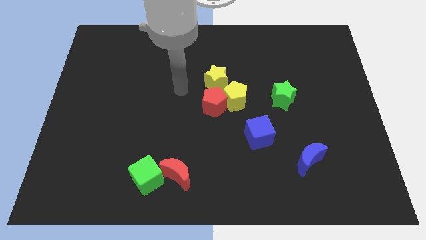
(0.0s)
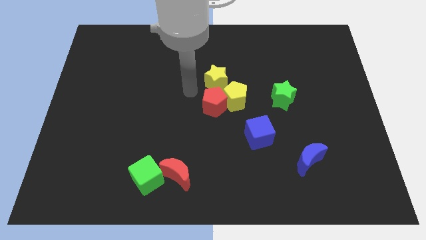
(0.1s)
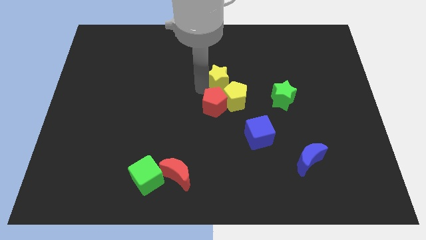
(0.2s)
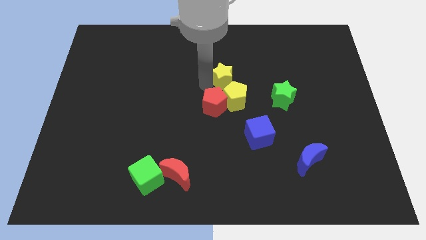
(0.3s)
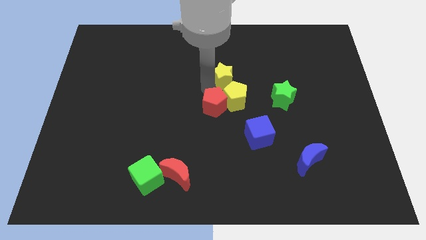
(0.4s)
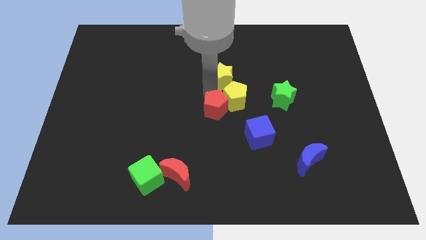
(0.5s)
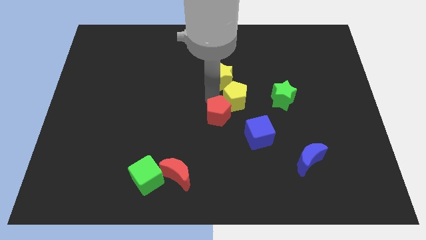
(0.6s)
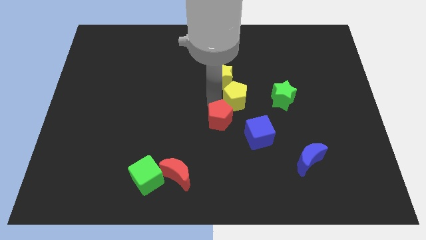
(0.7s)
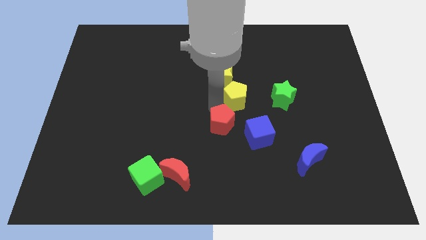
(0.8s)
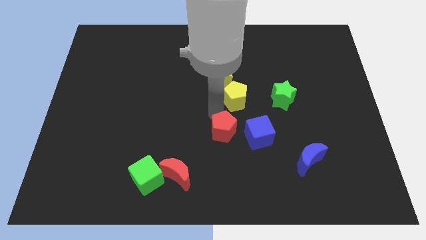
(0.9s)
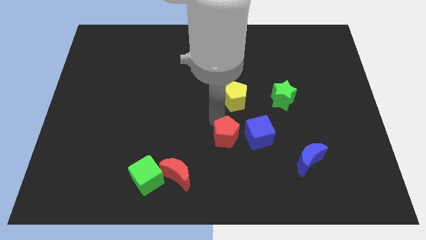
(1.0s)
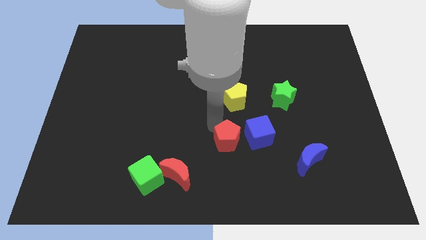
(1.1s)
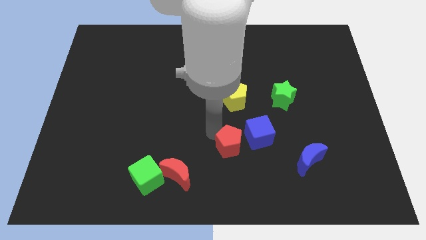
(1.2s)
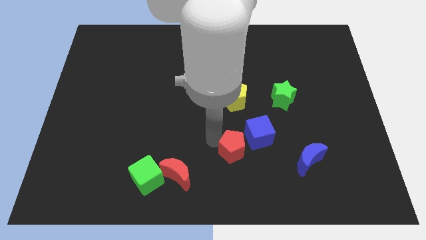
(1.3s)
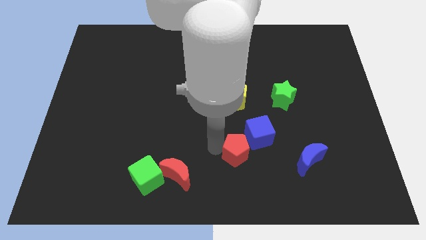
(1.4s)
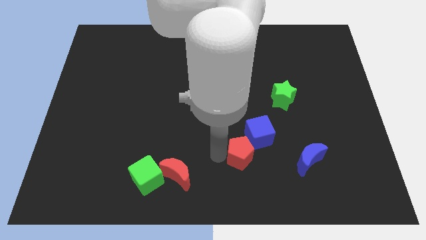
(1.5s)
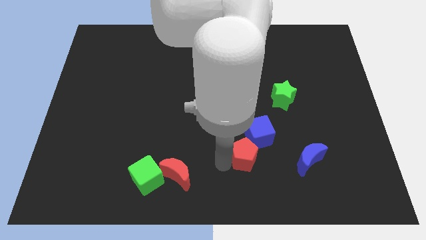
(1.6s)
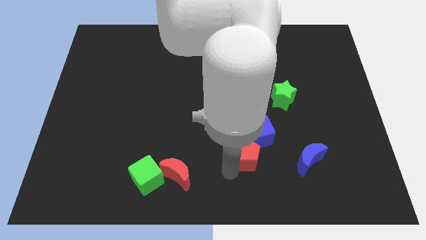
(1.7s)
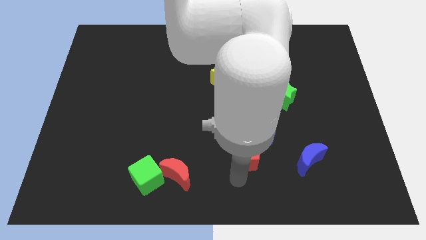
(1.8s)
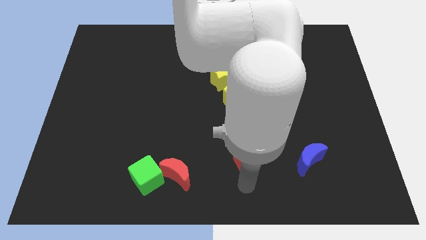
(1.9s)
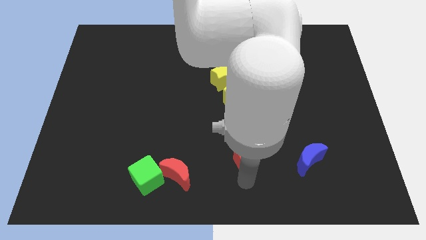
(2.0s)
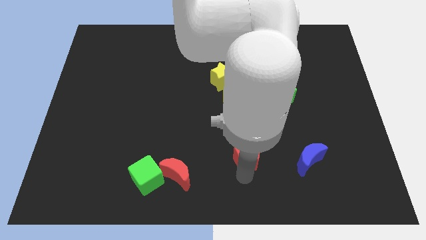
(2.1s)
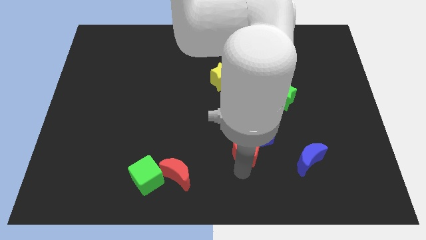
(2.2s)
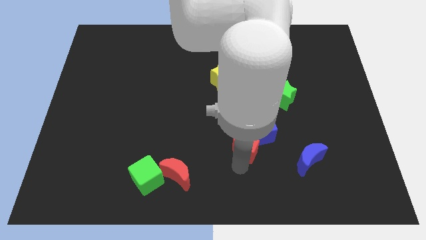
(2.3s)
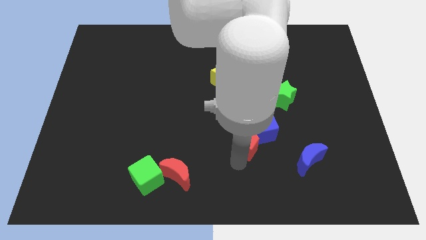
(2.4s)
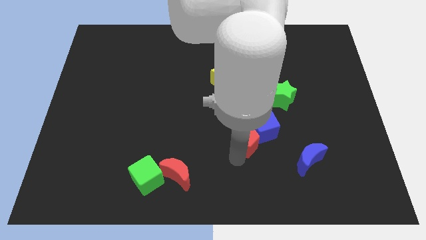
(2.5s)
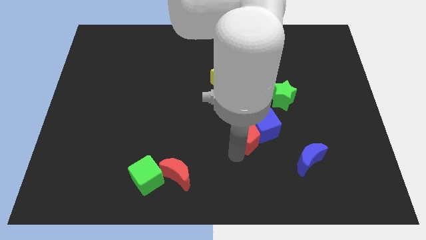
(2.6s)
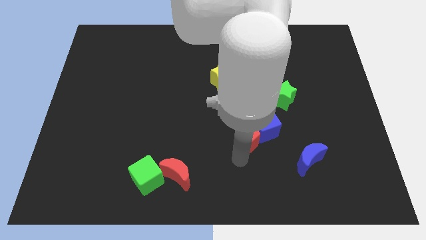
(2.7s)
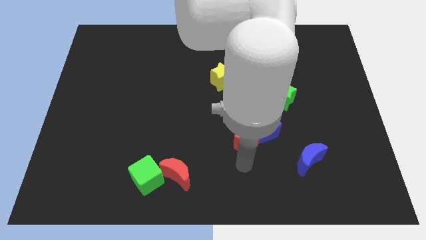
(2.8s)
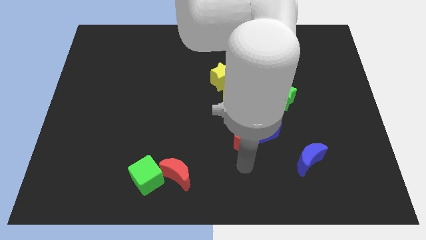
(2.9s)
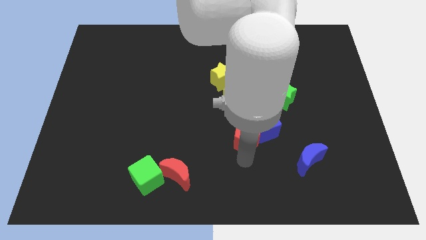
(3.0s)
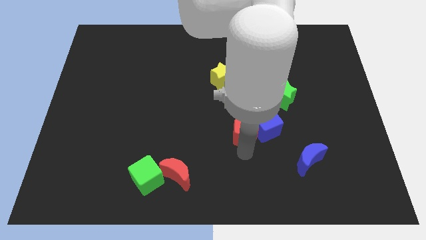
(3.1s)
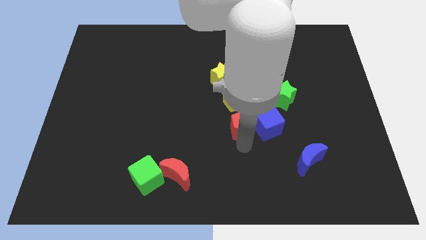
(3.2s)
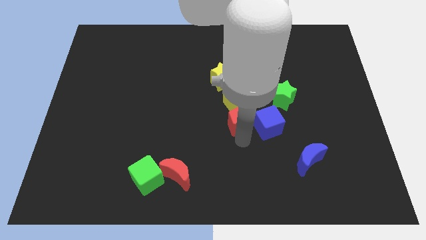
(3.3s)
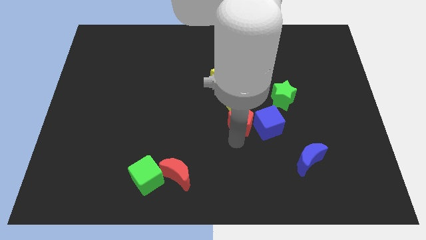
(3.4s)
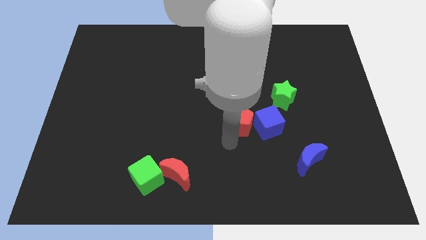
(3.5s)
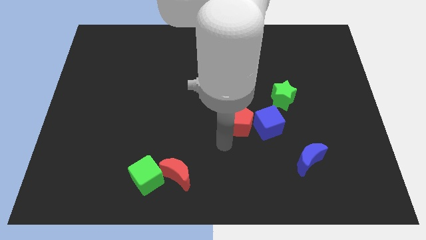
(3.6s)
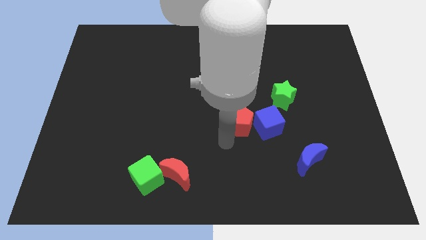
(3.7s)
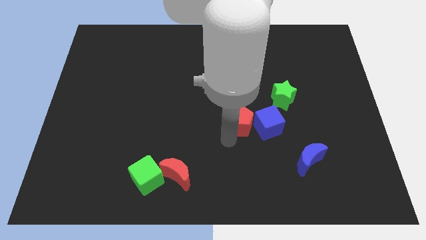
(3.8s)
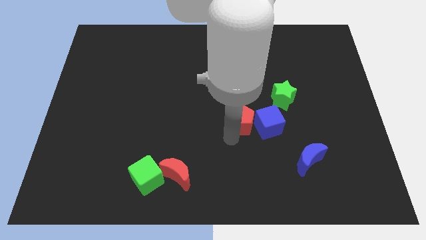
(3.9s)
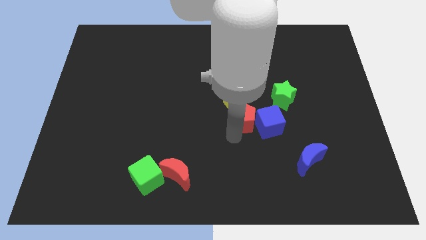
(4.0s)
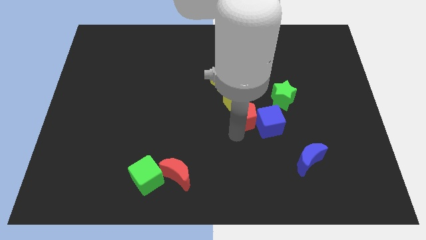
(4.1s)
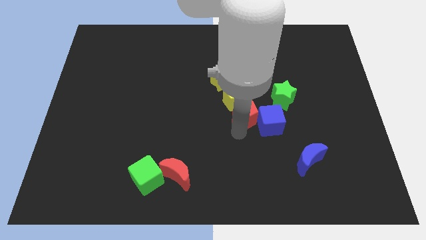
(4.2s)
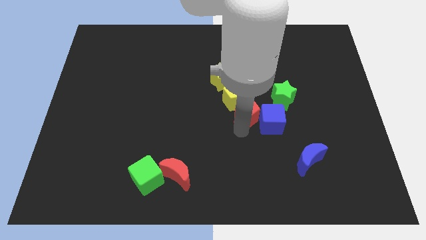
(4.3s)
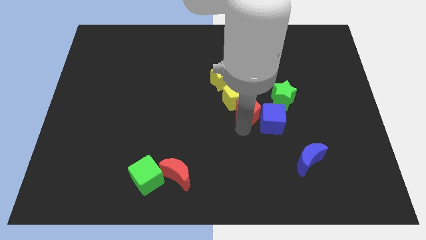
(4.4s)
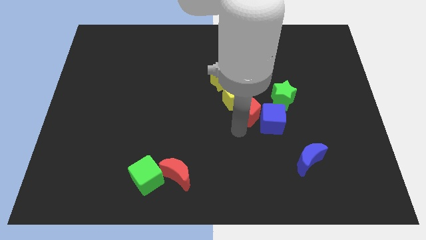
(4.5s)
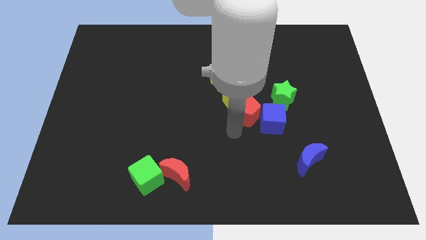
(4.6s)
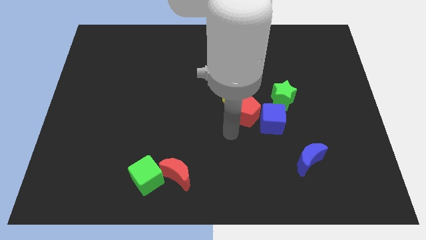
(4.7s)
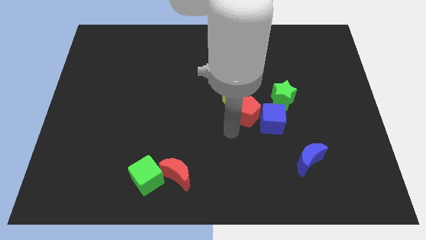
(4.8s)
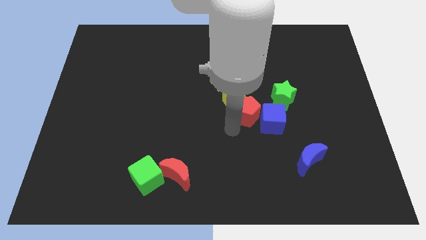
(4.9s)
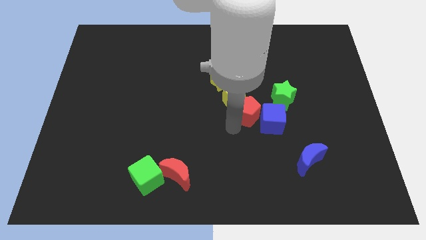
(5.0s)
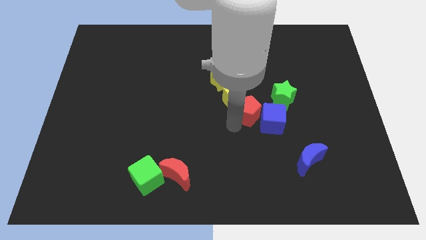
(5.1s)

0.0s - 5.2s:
slide the red pentagon to the bottom right of the yellow star

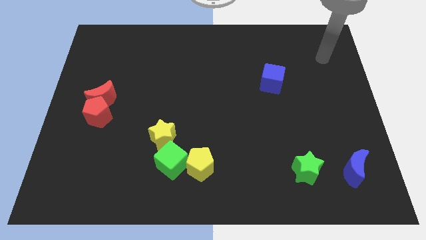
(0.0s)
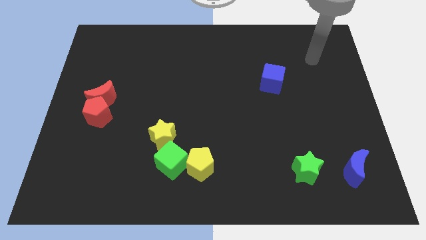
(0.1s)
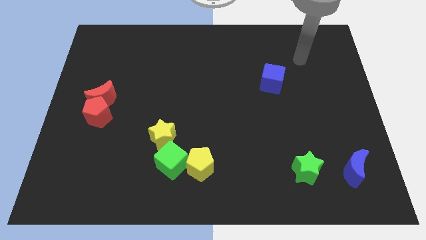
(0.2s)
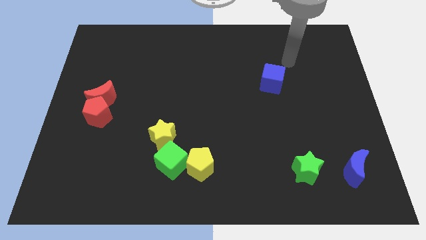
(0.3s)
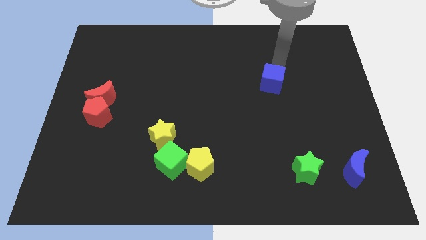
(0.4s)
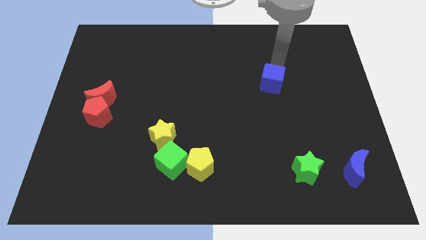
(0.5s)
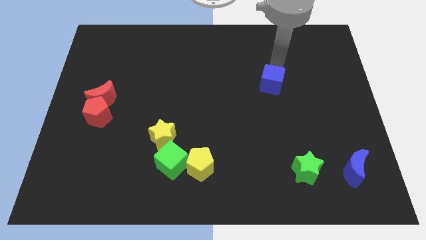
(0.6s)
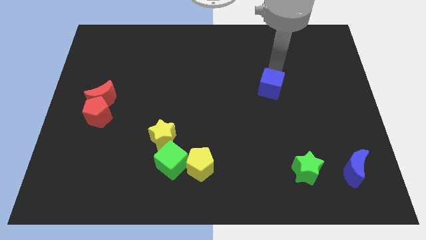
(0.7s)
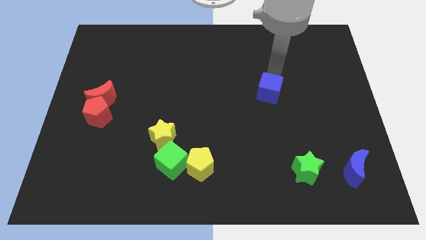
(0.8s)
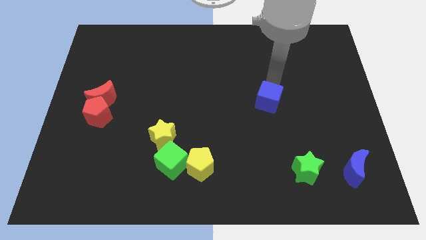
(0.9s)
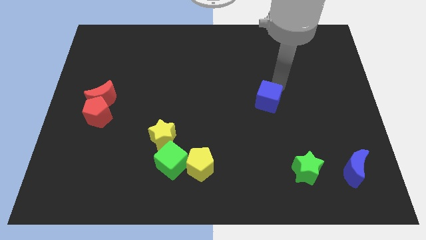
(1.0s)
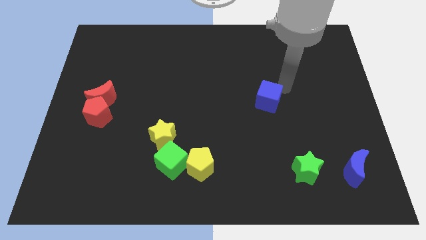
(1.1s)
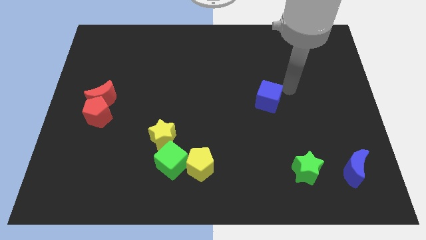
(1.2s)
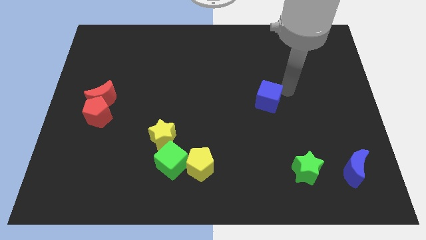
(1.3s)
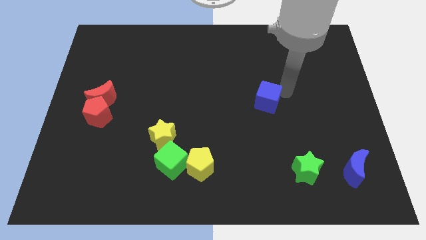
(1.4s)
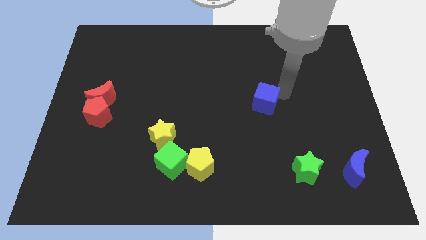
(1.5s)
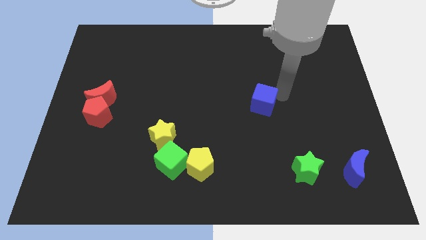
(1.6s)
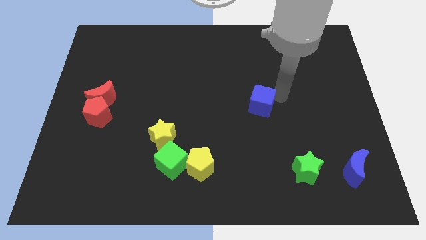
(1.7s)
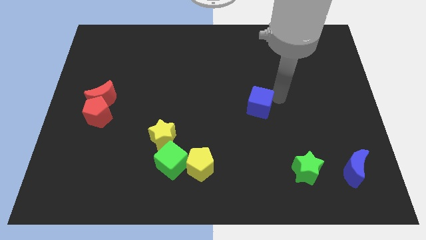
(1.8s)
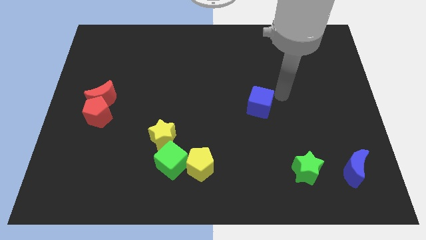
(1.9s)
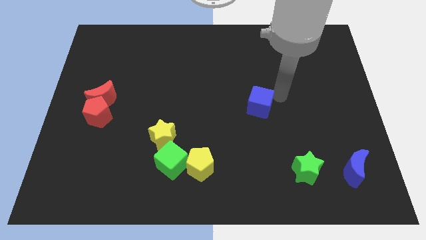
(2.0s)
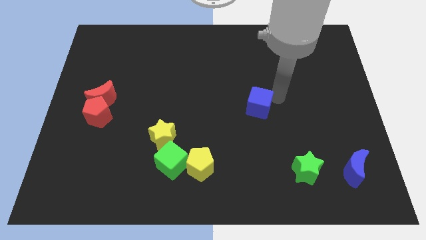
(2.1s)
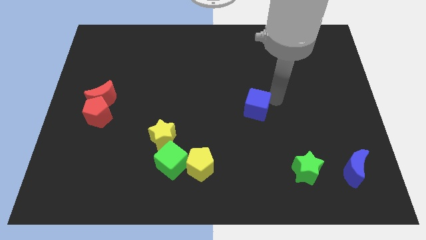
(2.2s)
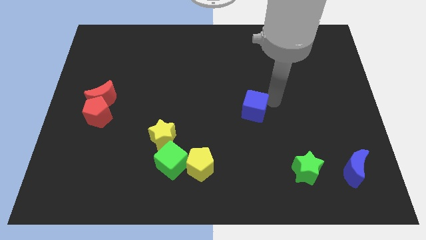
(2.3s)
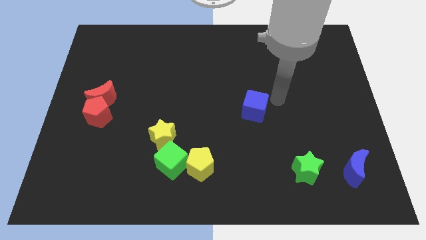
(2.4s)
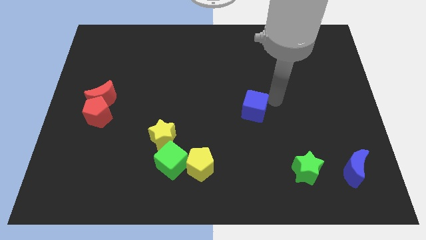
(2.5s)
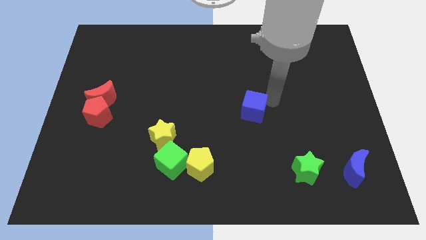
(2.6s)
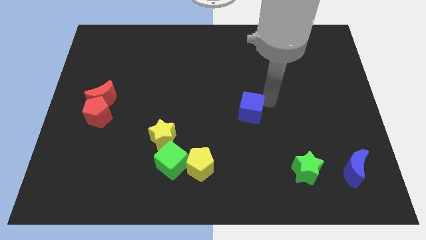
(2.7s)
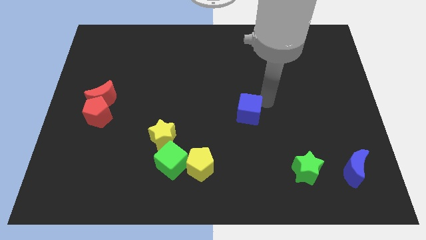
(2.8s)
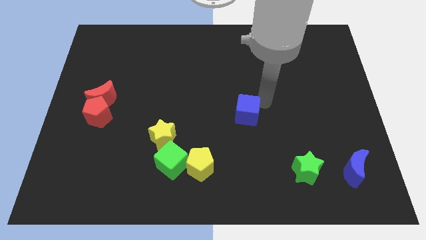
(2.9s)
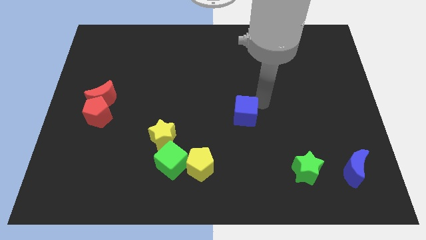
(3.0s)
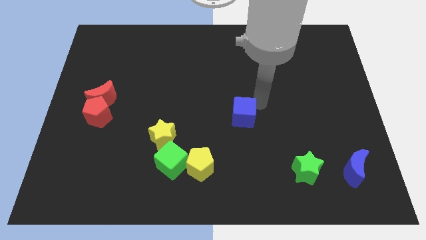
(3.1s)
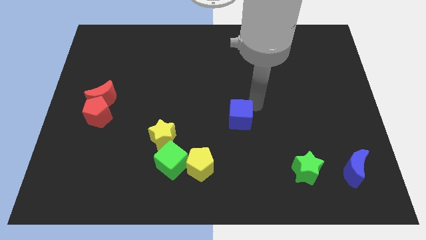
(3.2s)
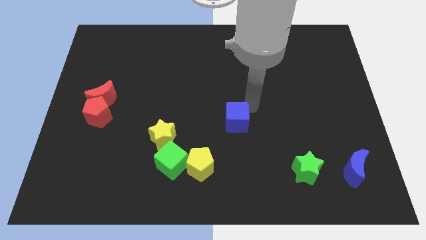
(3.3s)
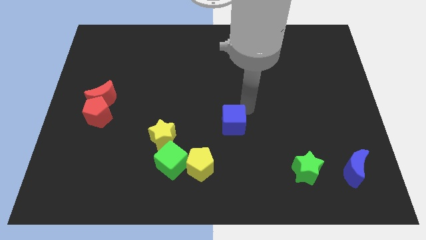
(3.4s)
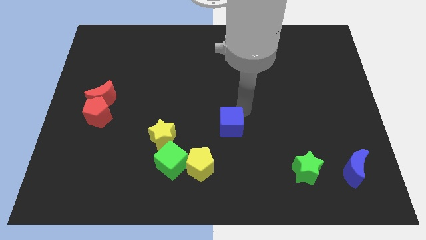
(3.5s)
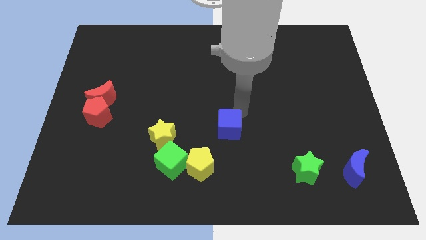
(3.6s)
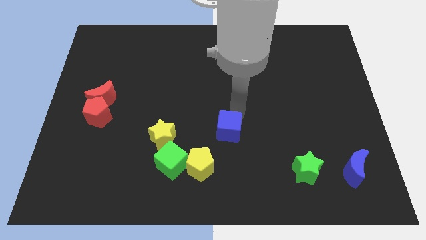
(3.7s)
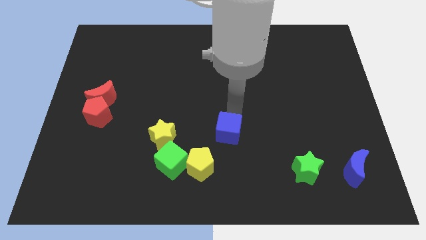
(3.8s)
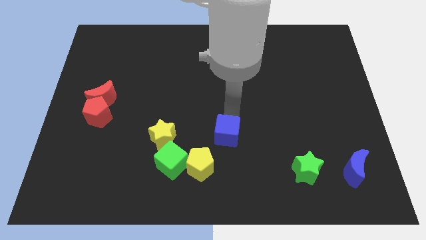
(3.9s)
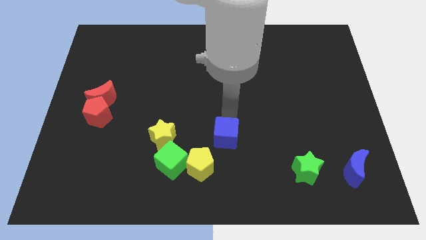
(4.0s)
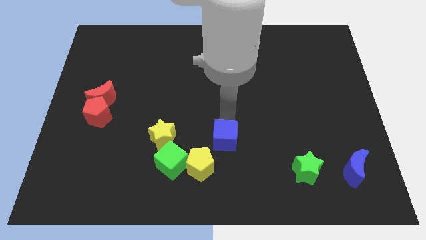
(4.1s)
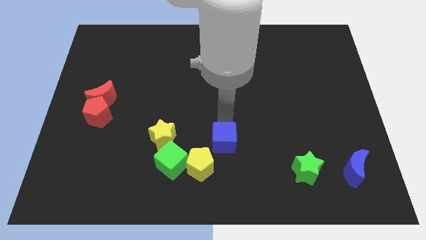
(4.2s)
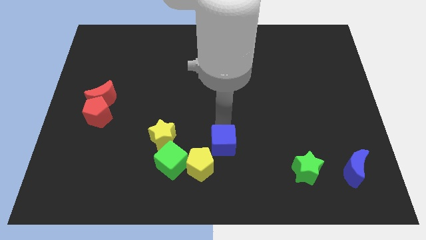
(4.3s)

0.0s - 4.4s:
move the blue cube to the top right side of the green cube
